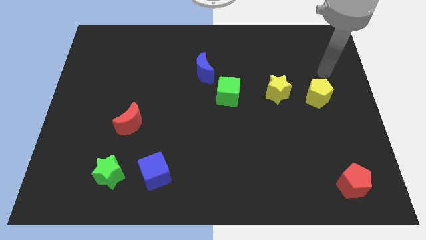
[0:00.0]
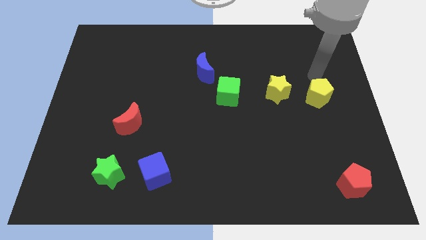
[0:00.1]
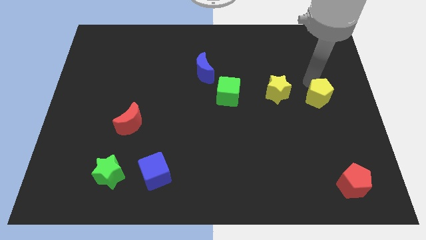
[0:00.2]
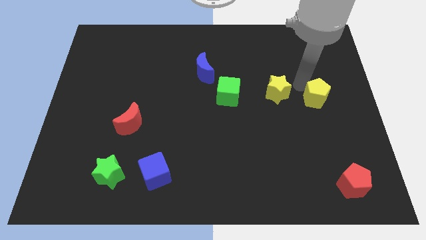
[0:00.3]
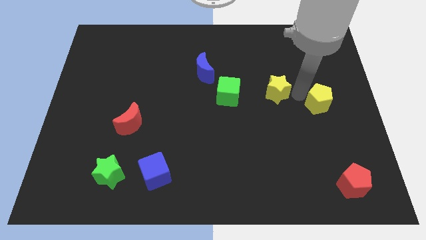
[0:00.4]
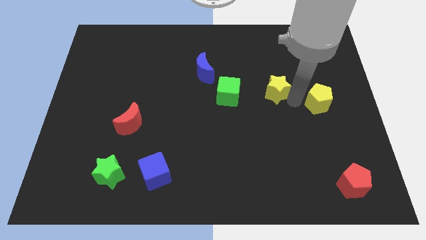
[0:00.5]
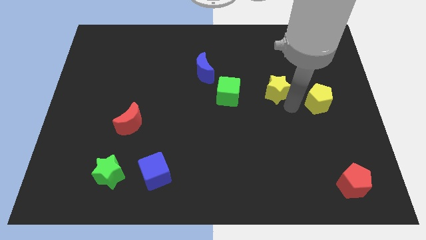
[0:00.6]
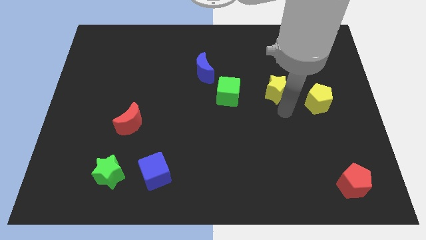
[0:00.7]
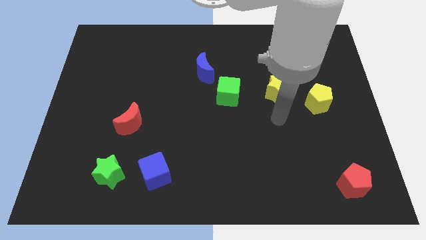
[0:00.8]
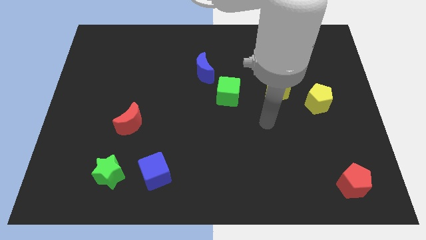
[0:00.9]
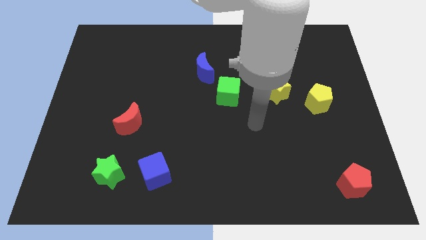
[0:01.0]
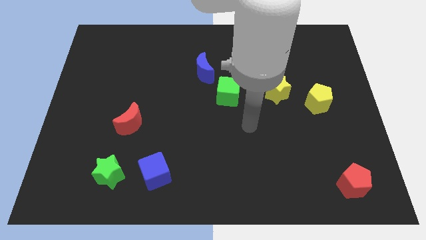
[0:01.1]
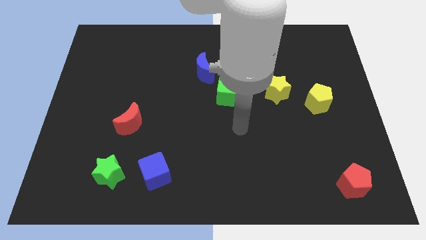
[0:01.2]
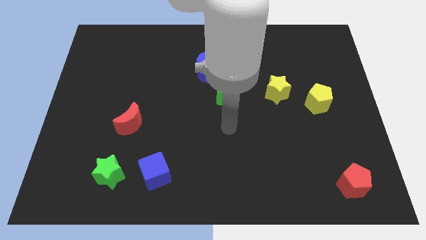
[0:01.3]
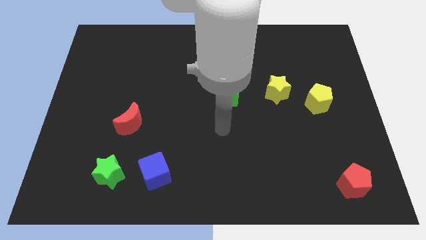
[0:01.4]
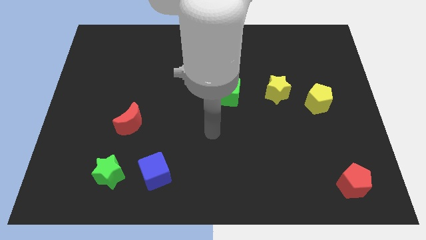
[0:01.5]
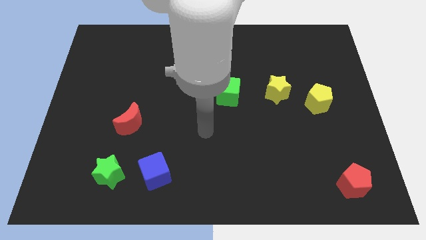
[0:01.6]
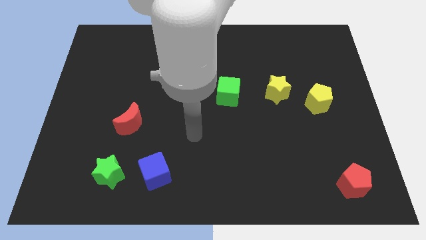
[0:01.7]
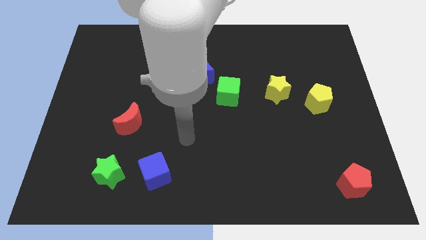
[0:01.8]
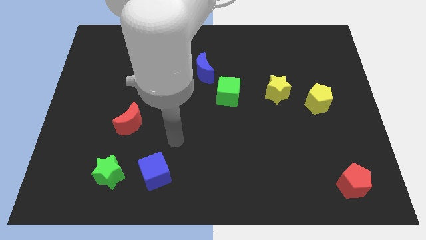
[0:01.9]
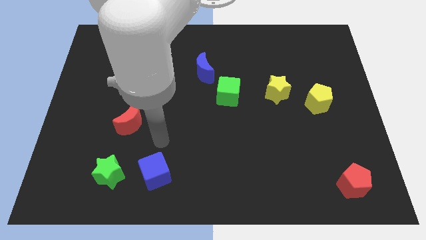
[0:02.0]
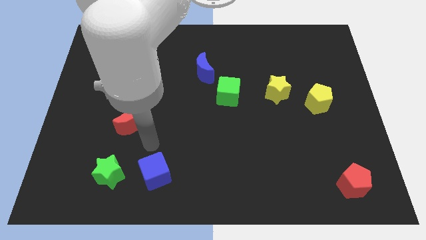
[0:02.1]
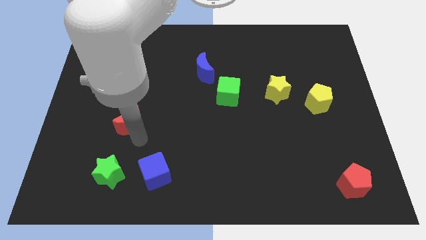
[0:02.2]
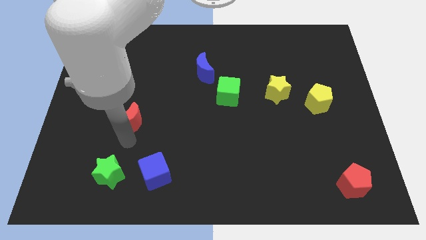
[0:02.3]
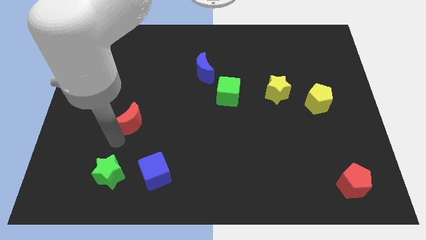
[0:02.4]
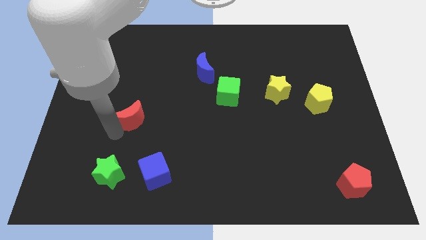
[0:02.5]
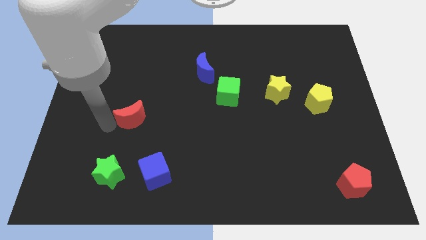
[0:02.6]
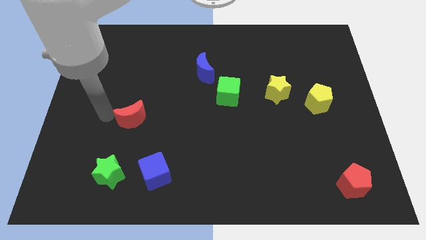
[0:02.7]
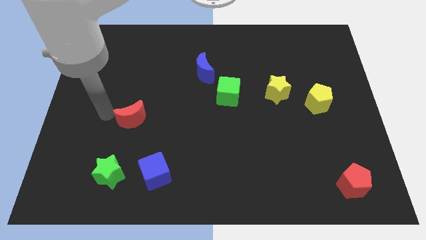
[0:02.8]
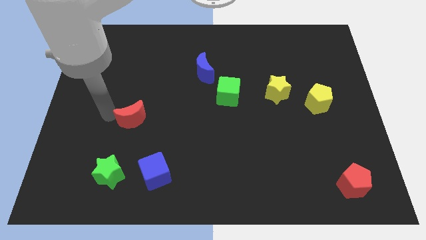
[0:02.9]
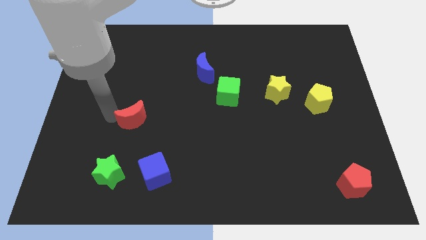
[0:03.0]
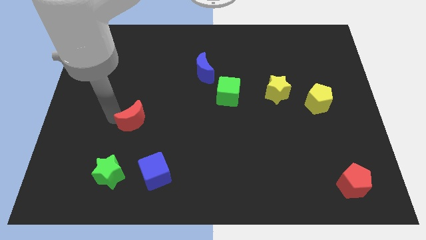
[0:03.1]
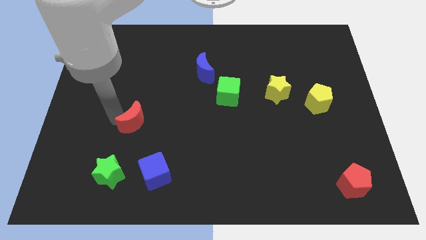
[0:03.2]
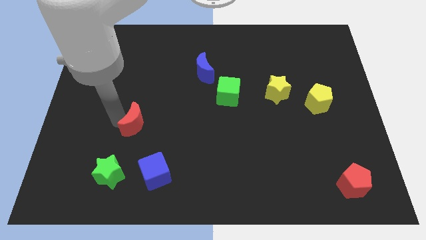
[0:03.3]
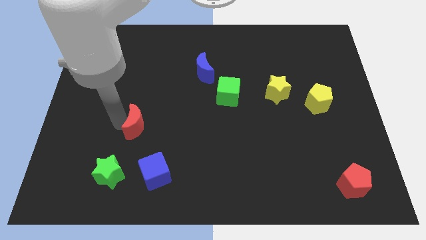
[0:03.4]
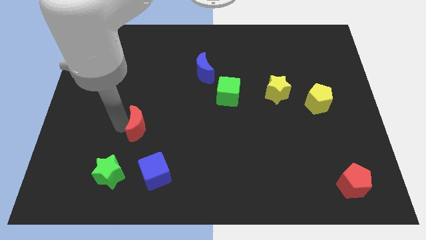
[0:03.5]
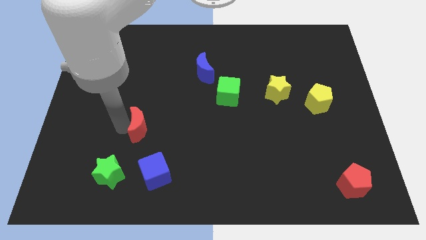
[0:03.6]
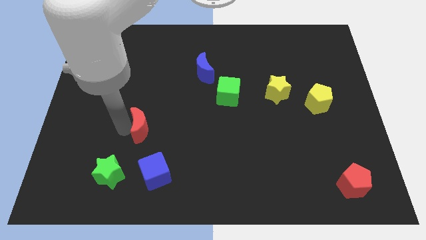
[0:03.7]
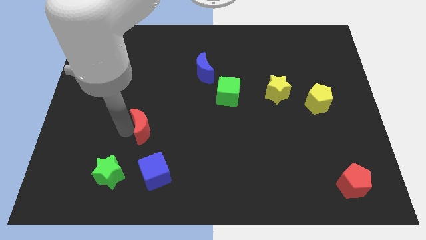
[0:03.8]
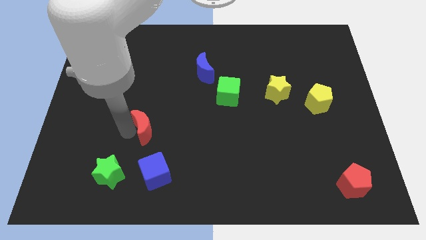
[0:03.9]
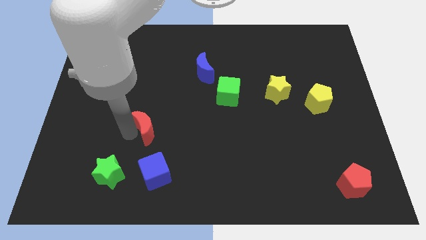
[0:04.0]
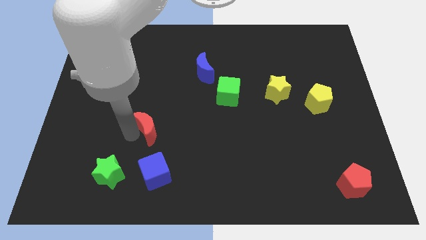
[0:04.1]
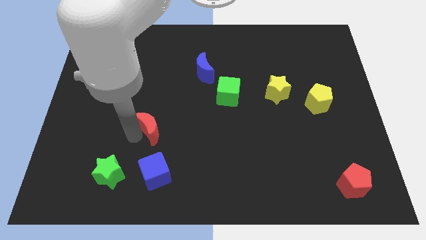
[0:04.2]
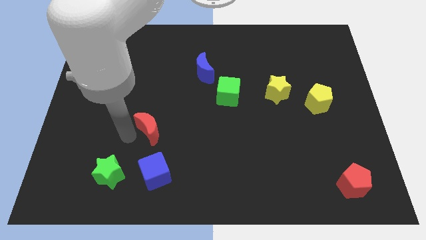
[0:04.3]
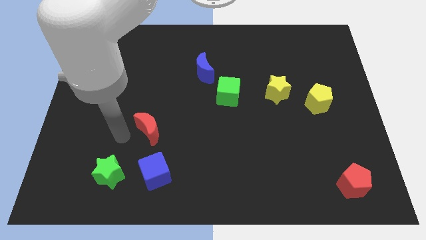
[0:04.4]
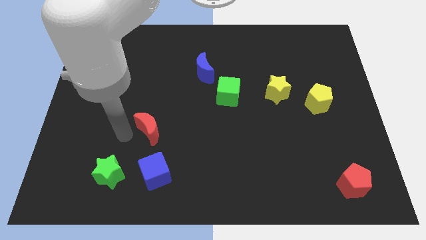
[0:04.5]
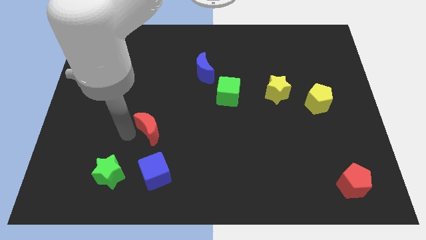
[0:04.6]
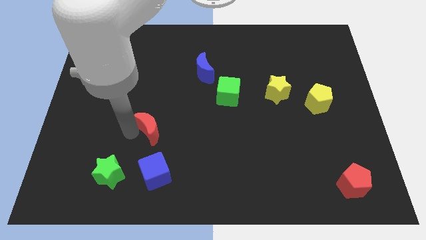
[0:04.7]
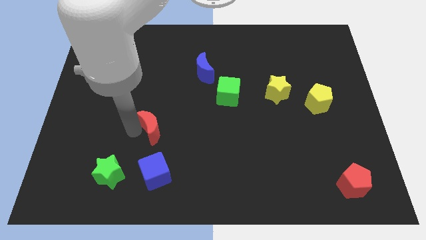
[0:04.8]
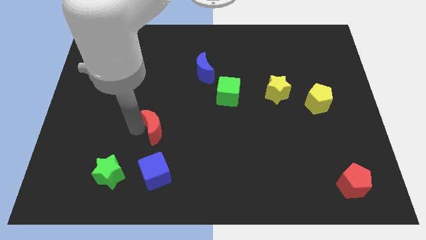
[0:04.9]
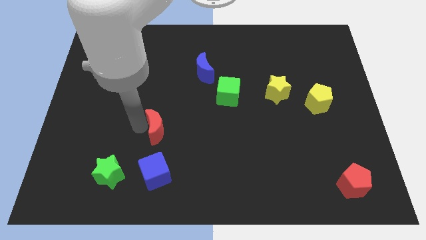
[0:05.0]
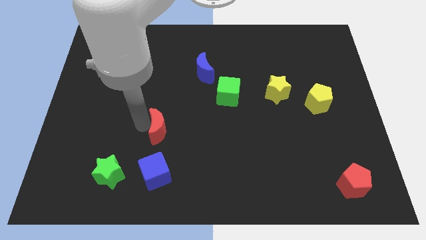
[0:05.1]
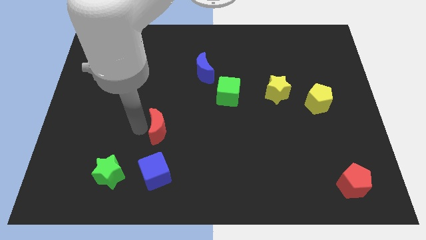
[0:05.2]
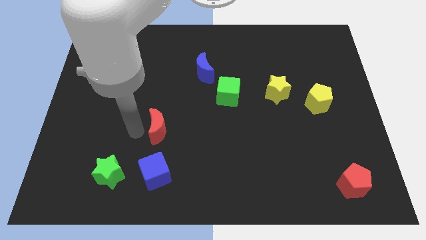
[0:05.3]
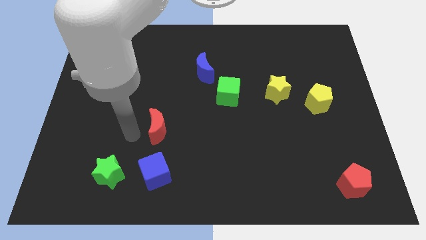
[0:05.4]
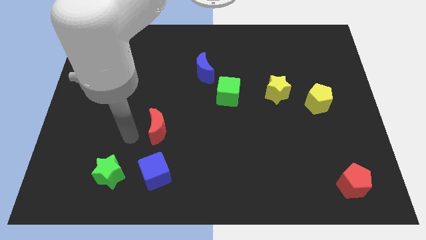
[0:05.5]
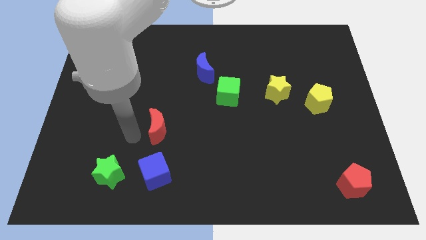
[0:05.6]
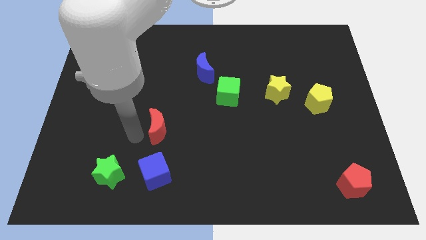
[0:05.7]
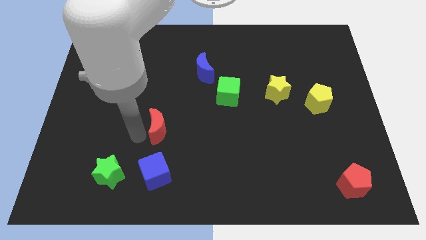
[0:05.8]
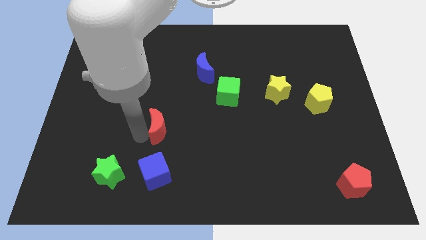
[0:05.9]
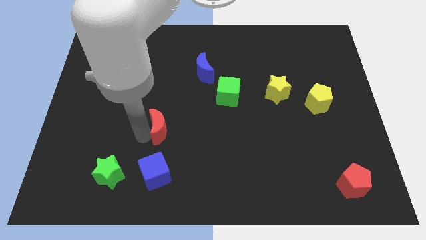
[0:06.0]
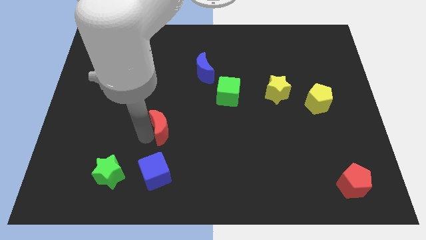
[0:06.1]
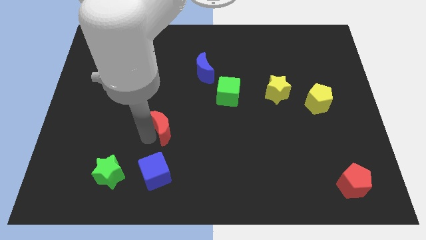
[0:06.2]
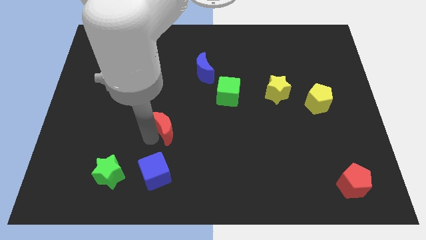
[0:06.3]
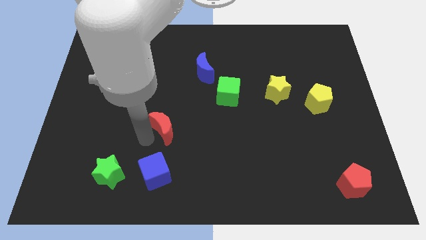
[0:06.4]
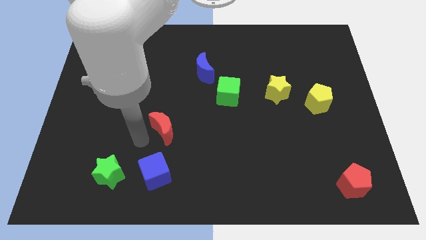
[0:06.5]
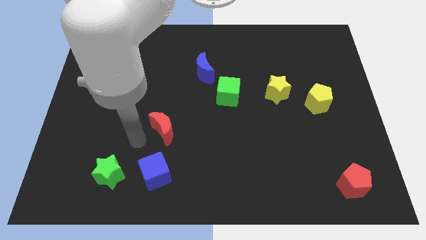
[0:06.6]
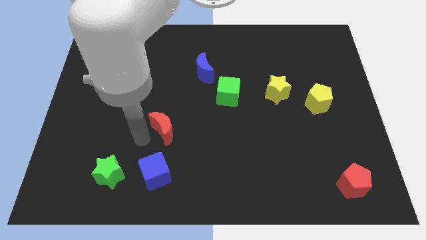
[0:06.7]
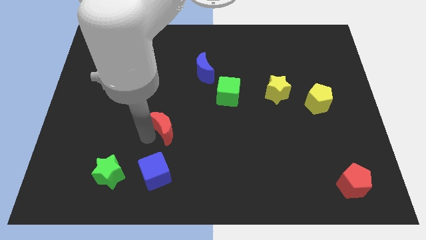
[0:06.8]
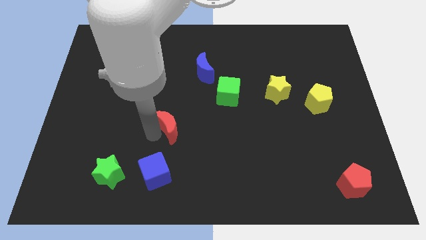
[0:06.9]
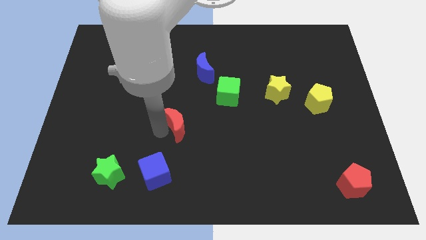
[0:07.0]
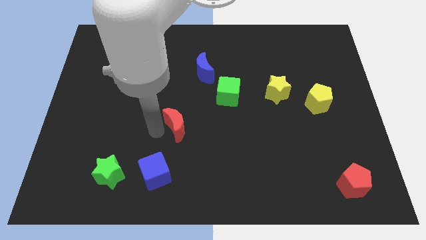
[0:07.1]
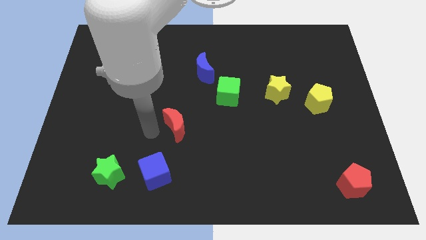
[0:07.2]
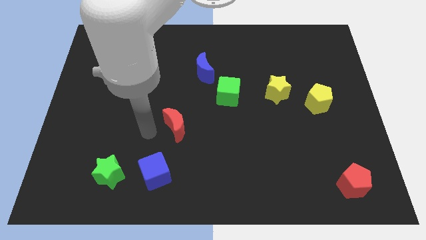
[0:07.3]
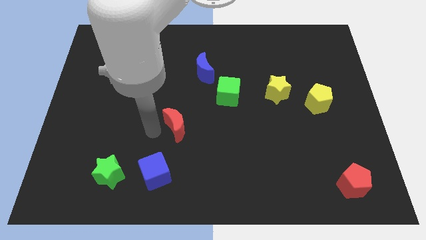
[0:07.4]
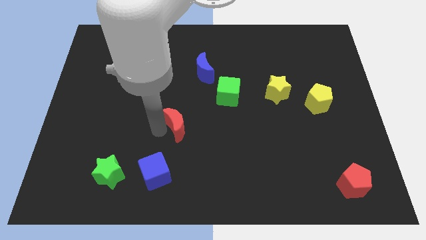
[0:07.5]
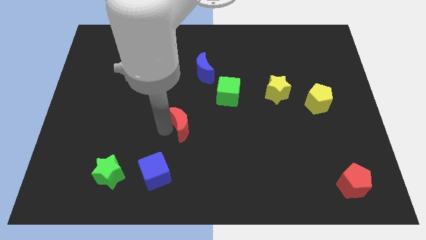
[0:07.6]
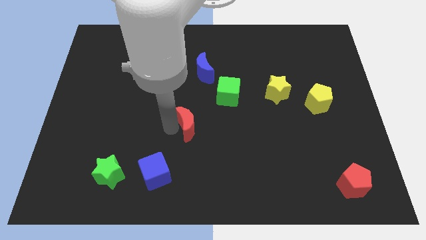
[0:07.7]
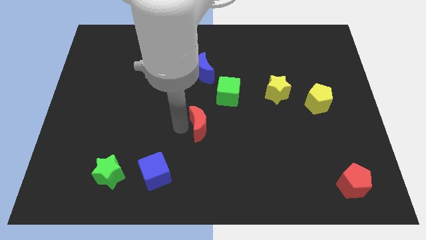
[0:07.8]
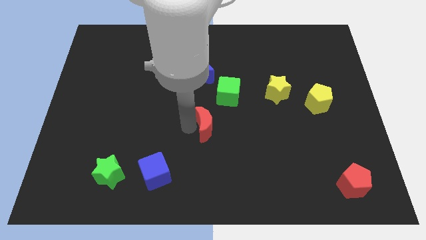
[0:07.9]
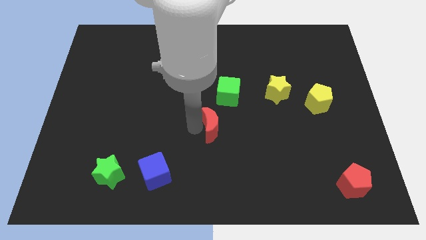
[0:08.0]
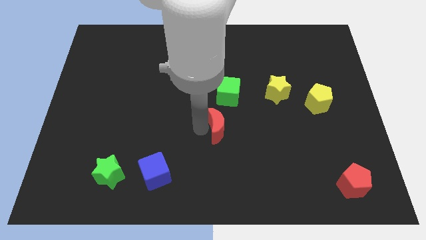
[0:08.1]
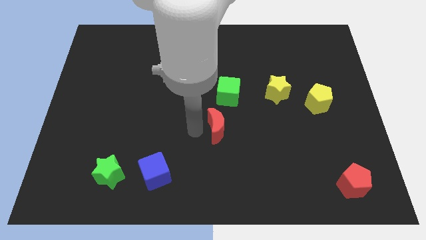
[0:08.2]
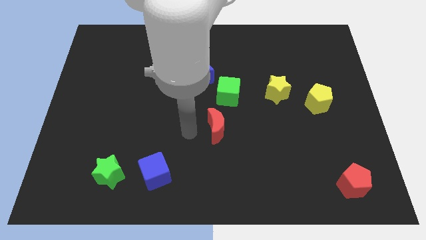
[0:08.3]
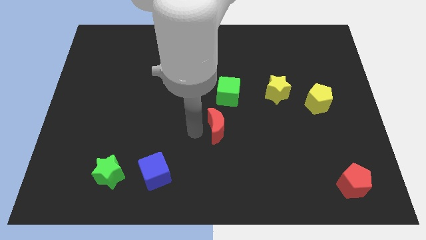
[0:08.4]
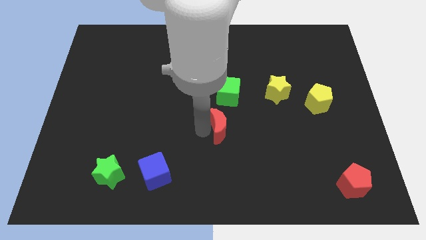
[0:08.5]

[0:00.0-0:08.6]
slide the red moon to the right
